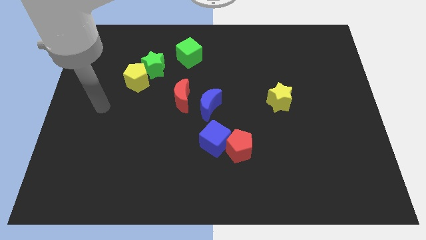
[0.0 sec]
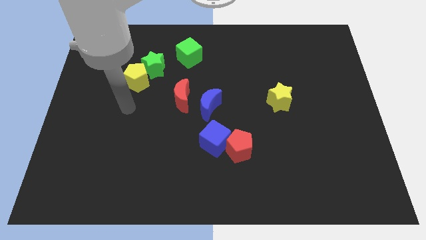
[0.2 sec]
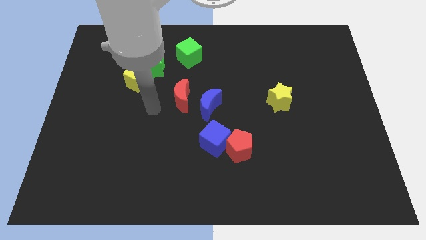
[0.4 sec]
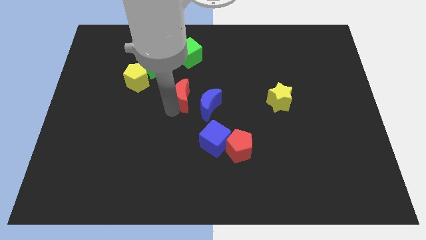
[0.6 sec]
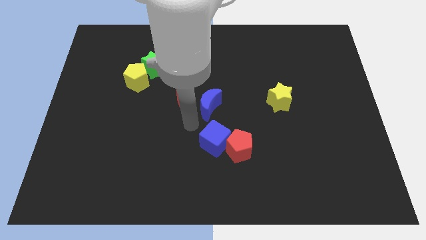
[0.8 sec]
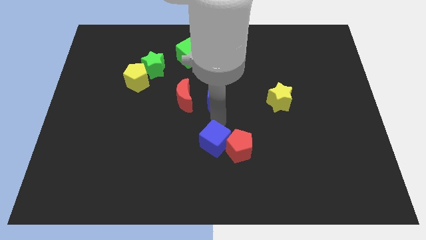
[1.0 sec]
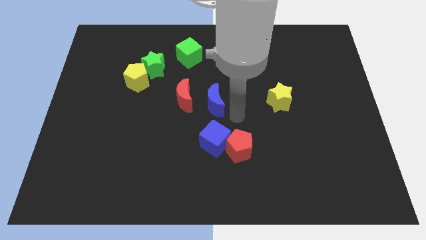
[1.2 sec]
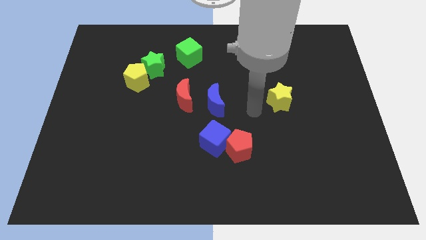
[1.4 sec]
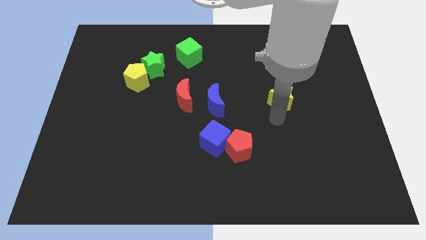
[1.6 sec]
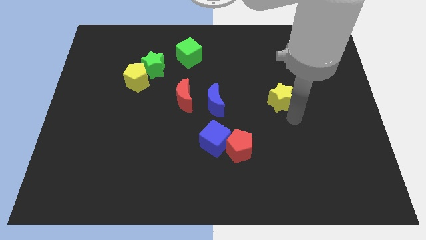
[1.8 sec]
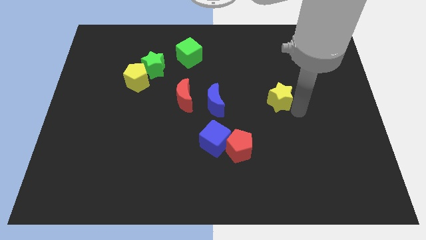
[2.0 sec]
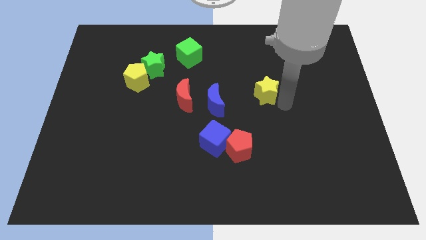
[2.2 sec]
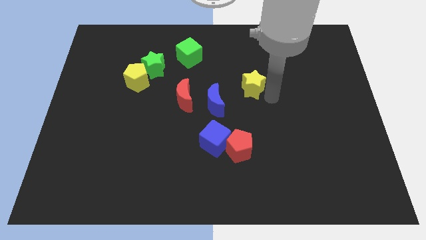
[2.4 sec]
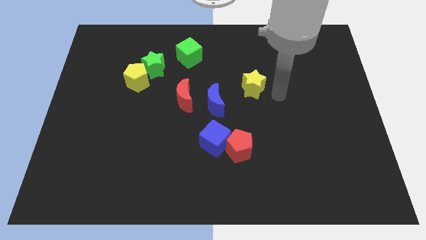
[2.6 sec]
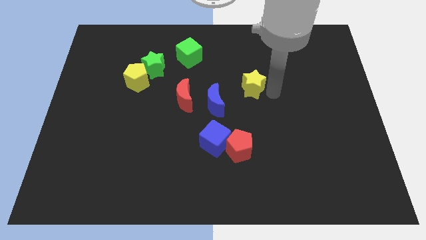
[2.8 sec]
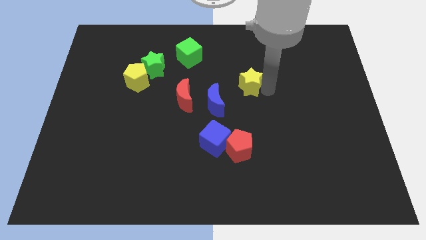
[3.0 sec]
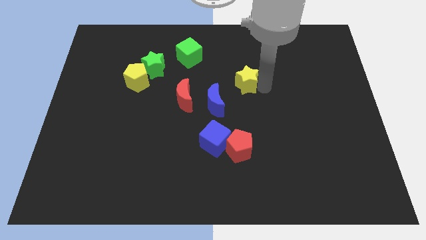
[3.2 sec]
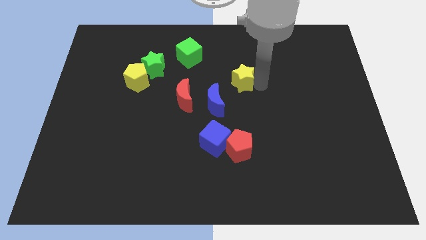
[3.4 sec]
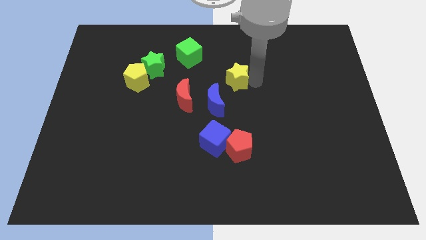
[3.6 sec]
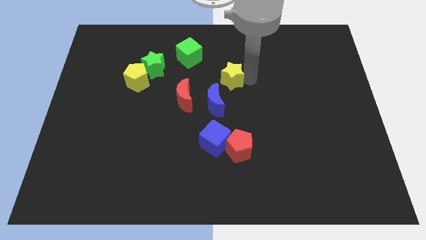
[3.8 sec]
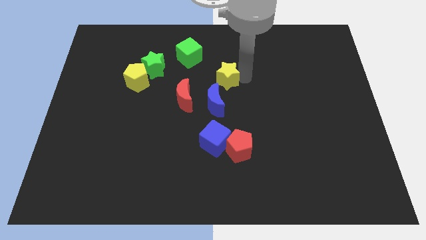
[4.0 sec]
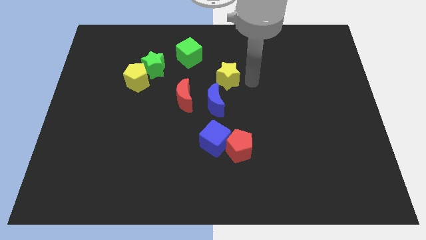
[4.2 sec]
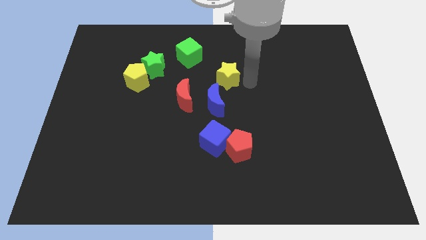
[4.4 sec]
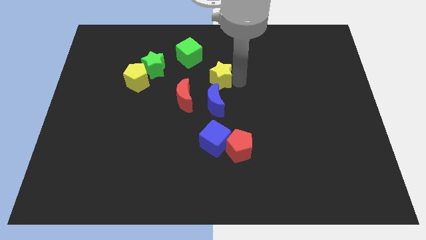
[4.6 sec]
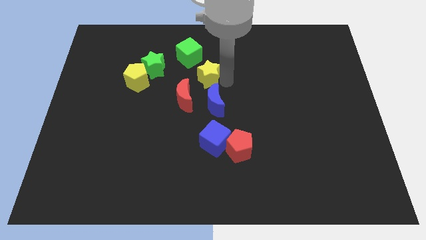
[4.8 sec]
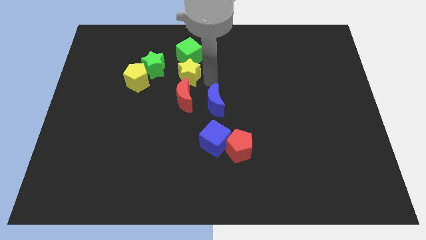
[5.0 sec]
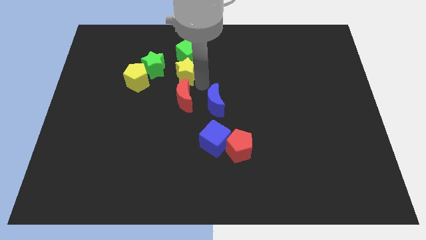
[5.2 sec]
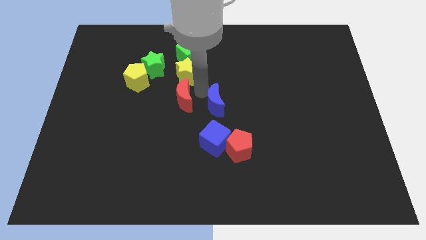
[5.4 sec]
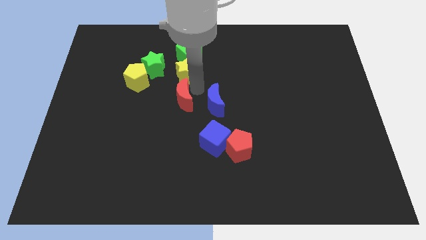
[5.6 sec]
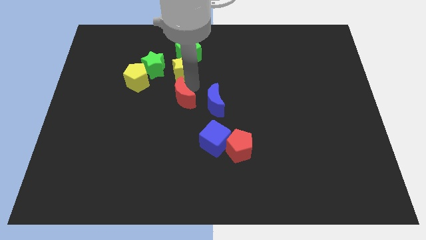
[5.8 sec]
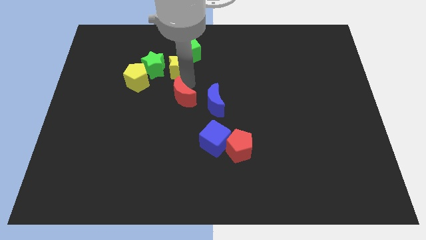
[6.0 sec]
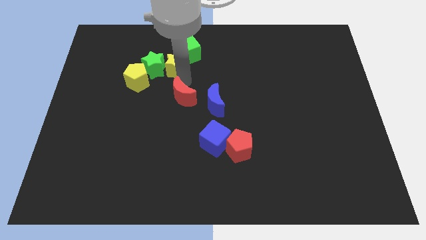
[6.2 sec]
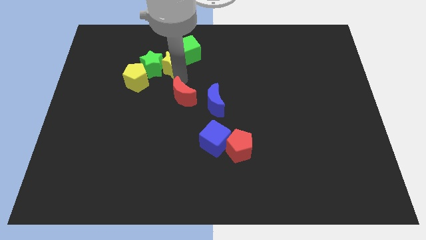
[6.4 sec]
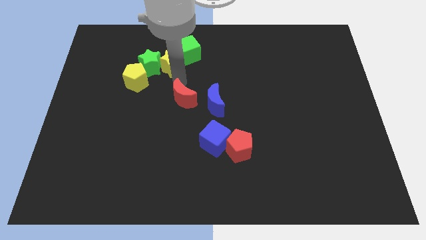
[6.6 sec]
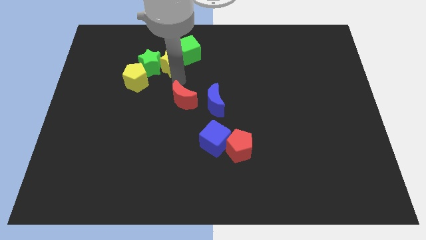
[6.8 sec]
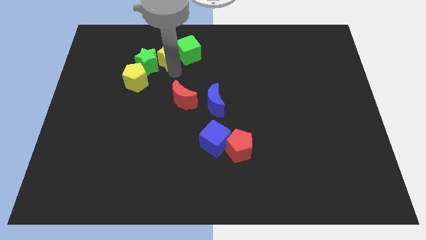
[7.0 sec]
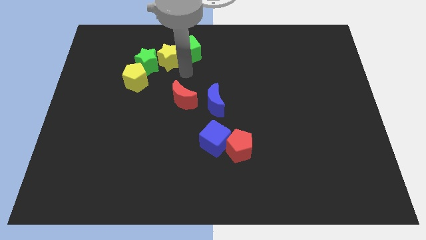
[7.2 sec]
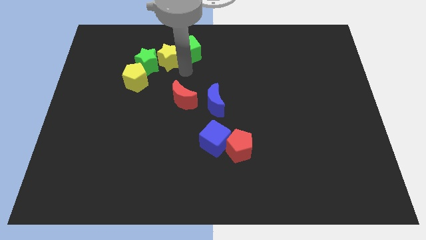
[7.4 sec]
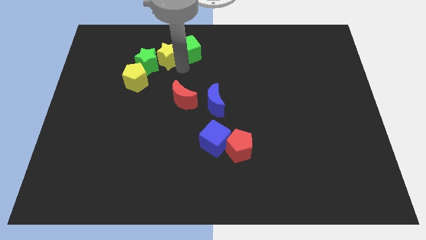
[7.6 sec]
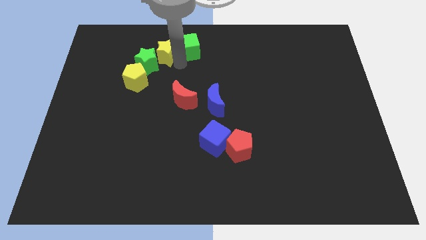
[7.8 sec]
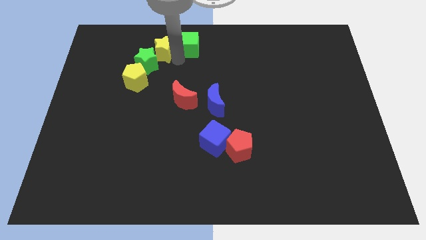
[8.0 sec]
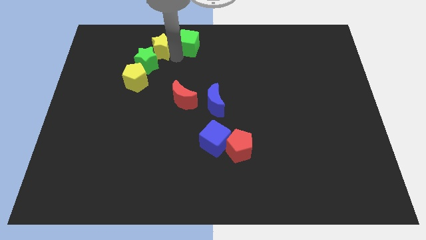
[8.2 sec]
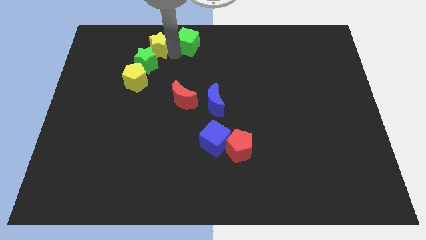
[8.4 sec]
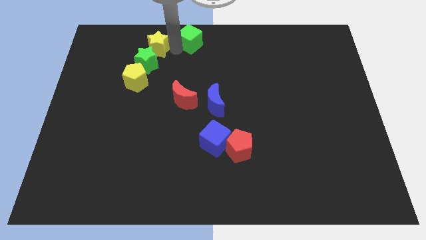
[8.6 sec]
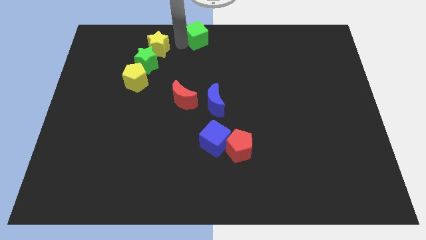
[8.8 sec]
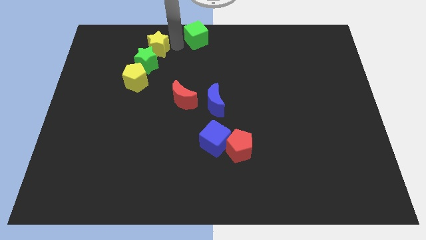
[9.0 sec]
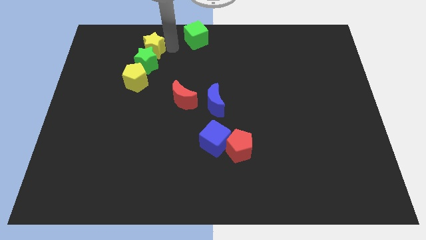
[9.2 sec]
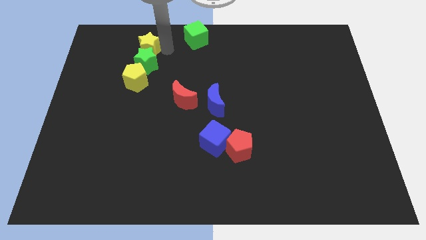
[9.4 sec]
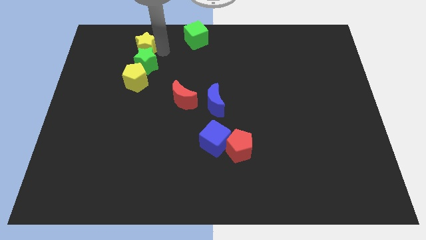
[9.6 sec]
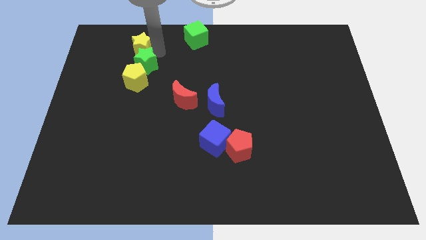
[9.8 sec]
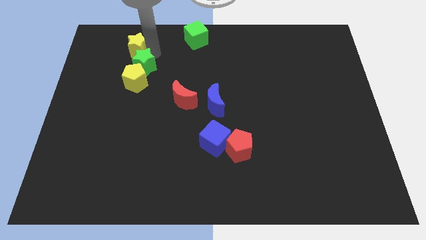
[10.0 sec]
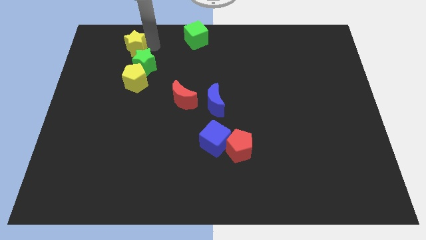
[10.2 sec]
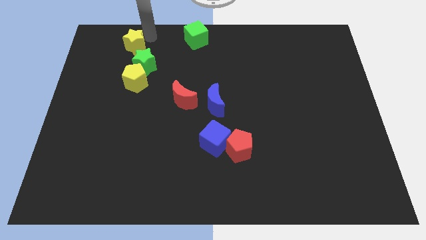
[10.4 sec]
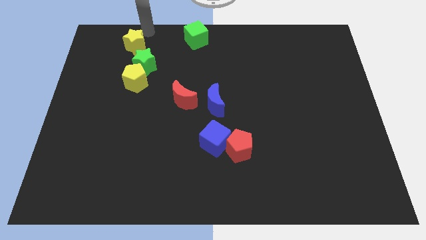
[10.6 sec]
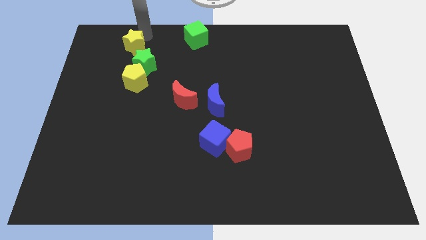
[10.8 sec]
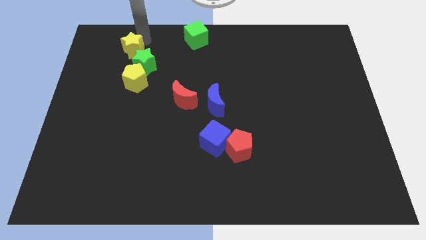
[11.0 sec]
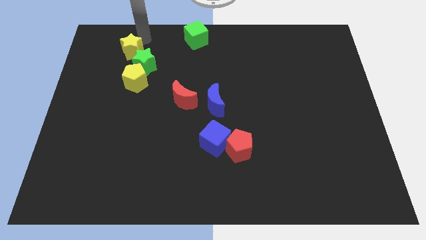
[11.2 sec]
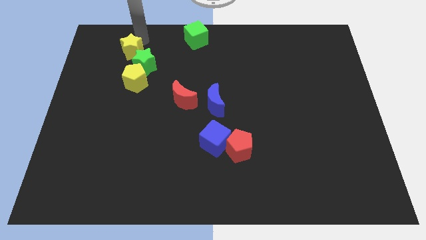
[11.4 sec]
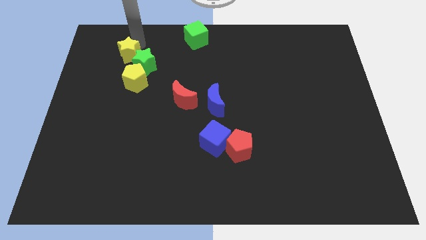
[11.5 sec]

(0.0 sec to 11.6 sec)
put the yellow star to the top left side of the yellow pentagon

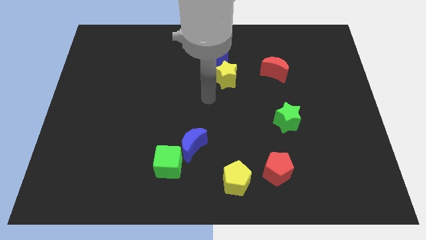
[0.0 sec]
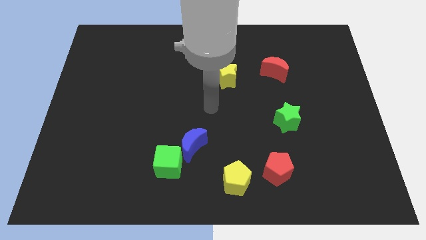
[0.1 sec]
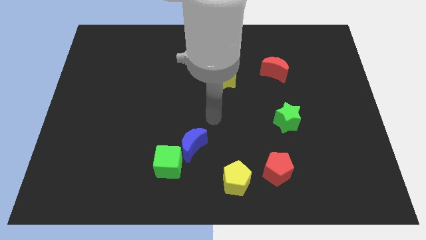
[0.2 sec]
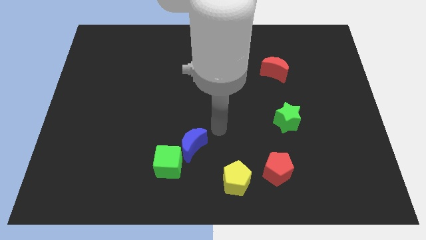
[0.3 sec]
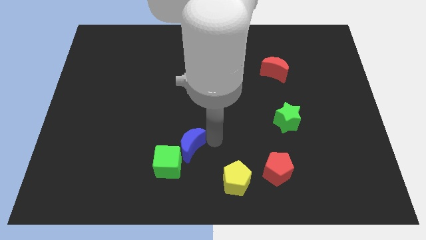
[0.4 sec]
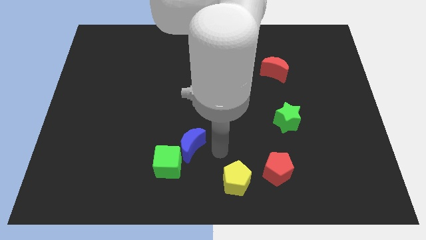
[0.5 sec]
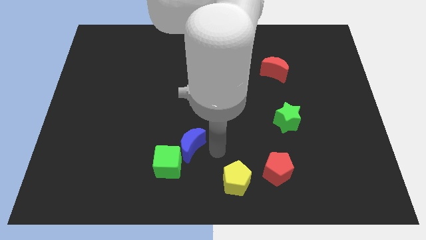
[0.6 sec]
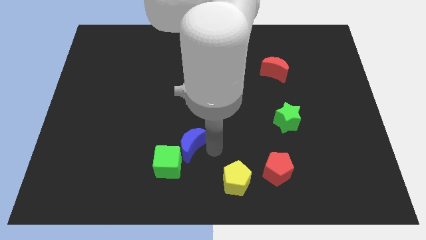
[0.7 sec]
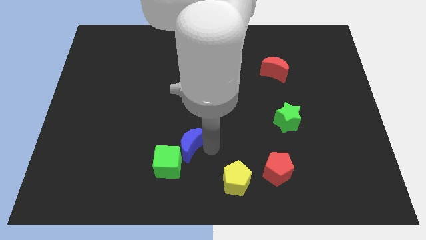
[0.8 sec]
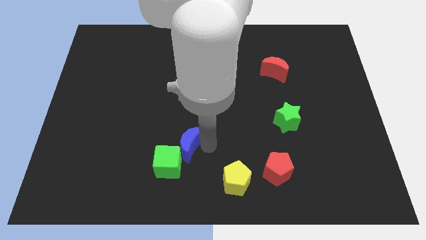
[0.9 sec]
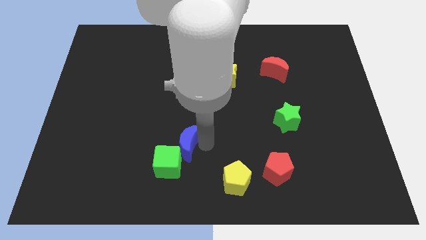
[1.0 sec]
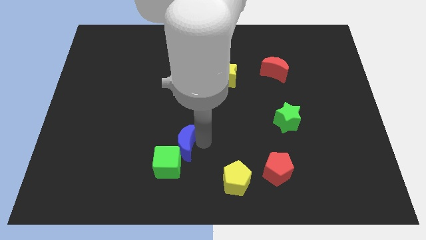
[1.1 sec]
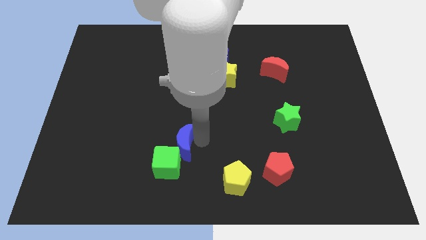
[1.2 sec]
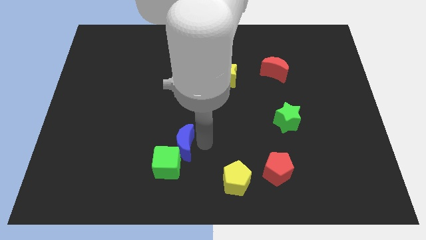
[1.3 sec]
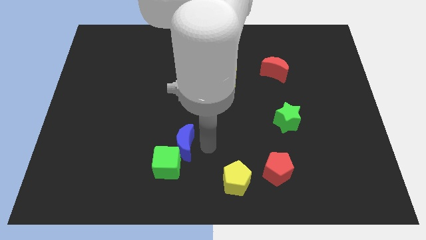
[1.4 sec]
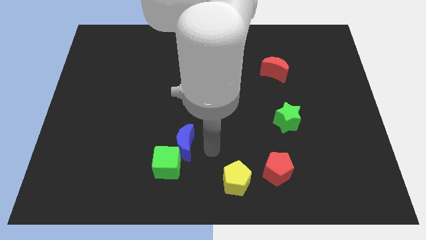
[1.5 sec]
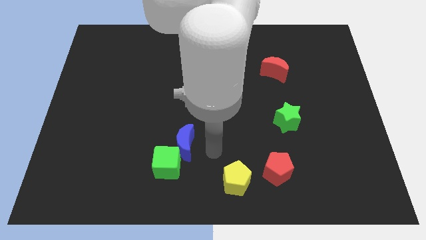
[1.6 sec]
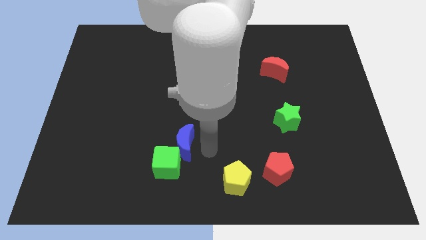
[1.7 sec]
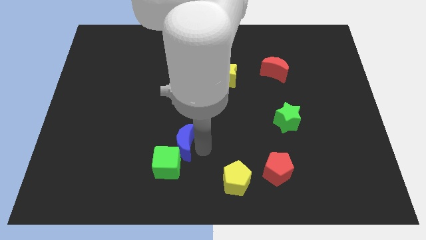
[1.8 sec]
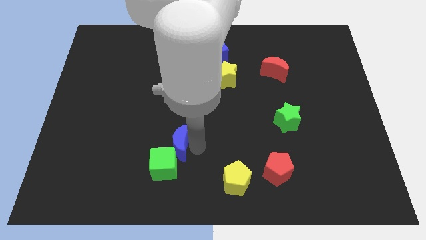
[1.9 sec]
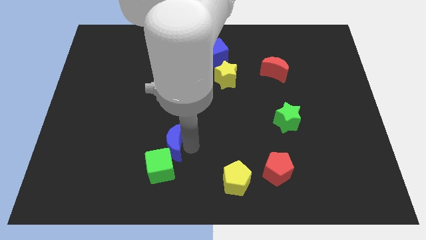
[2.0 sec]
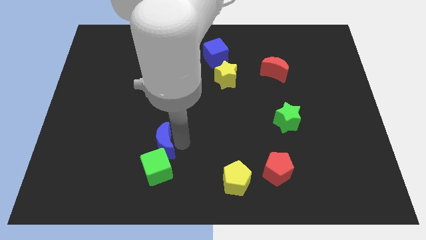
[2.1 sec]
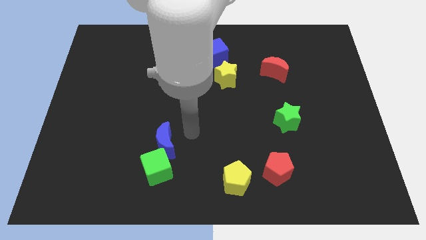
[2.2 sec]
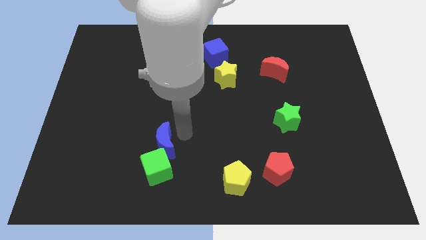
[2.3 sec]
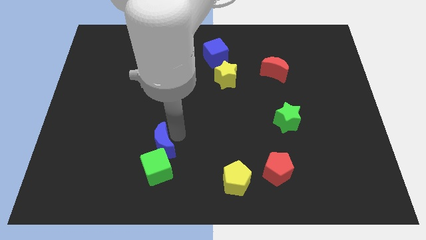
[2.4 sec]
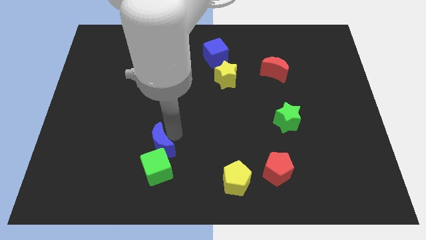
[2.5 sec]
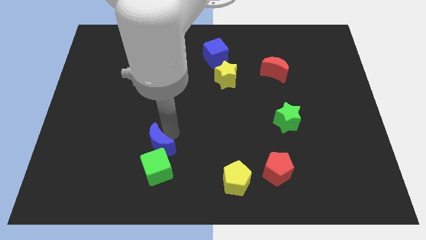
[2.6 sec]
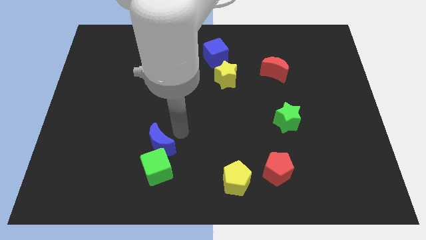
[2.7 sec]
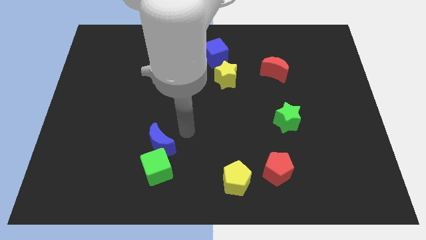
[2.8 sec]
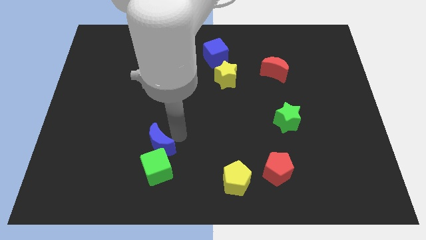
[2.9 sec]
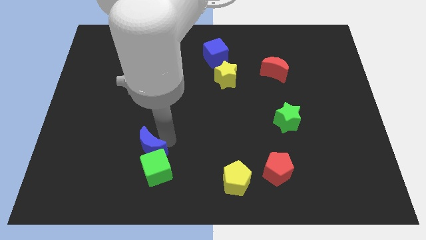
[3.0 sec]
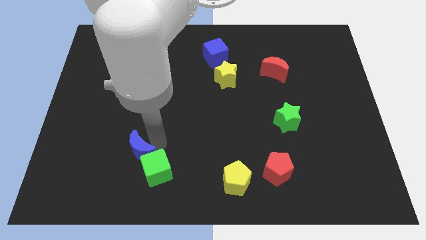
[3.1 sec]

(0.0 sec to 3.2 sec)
move the blue moon just left of the green cube
